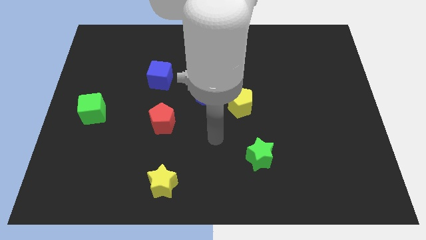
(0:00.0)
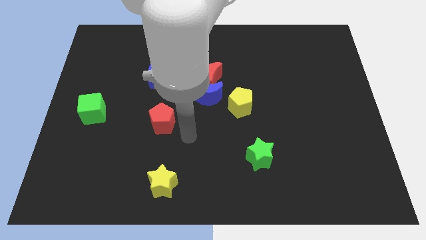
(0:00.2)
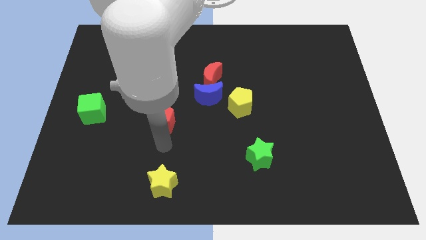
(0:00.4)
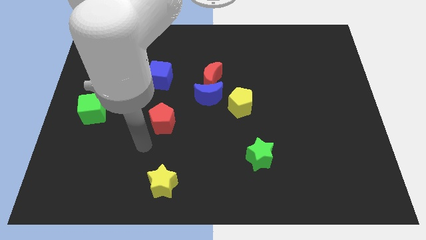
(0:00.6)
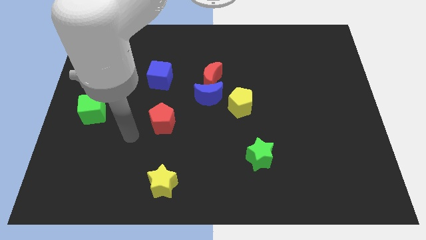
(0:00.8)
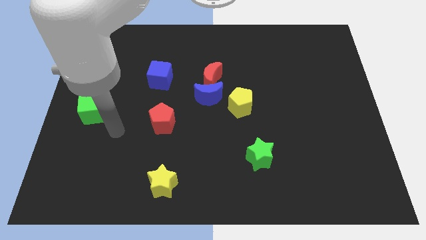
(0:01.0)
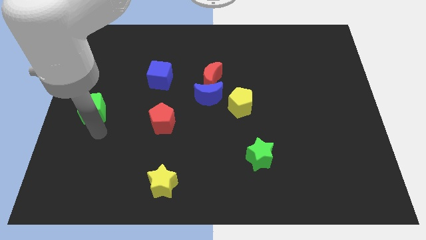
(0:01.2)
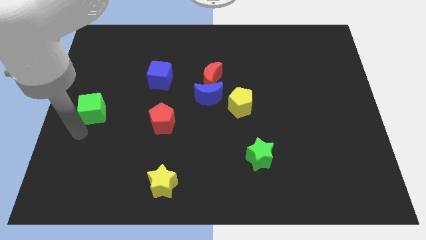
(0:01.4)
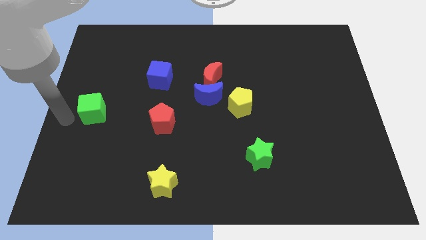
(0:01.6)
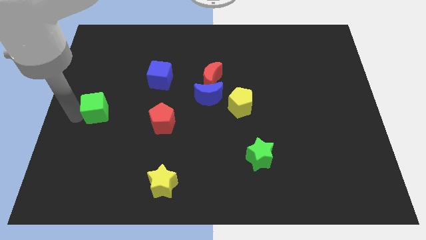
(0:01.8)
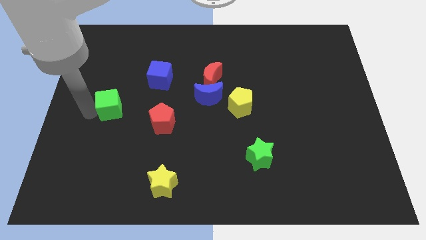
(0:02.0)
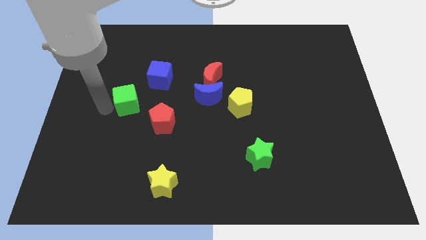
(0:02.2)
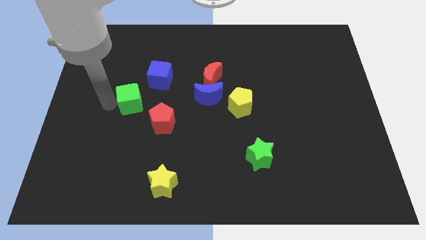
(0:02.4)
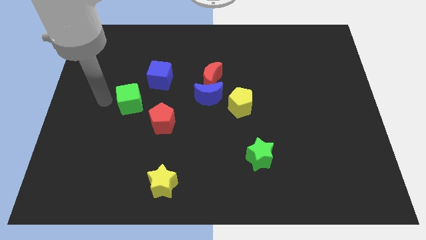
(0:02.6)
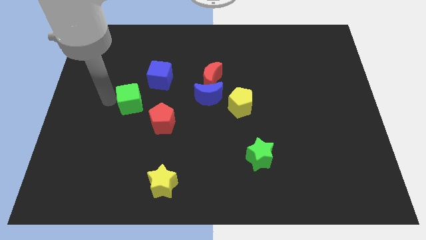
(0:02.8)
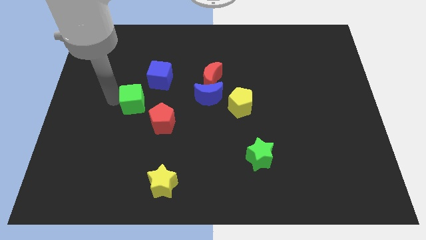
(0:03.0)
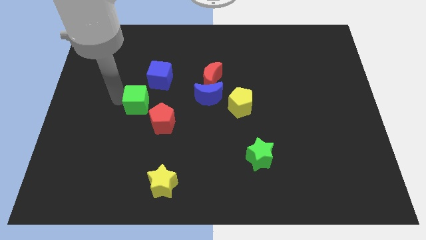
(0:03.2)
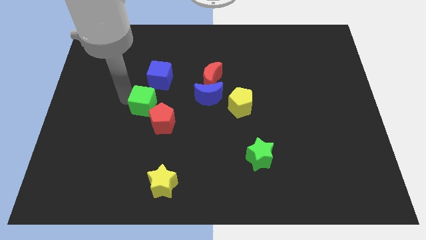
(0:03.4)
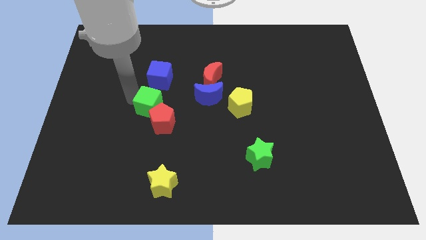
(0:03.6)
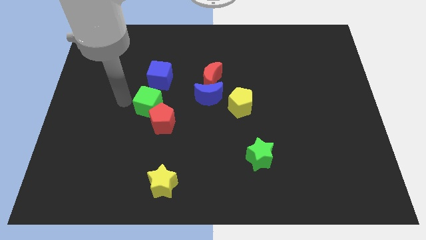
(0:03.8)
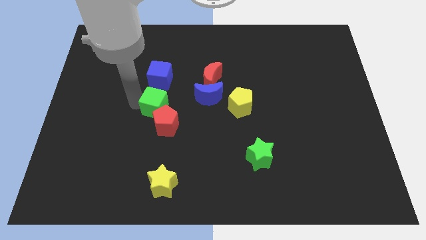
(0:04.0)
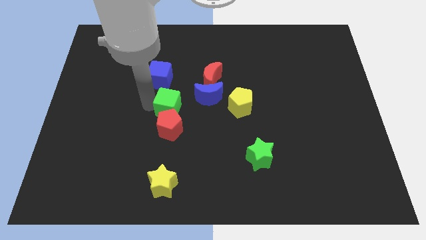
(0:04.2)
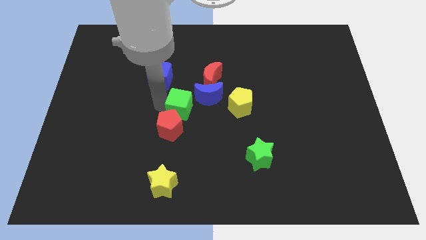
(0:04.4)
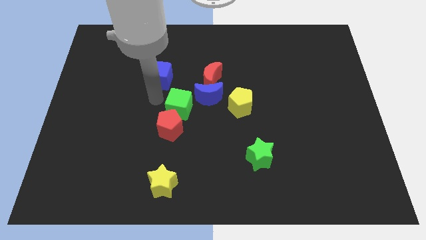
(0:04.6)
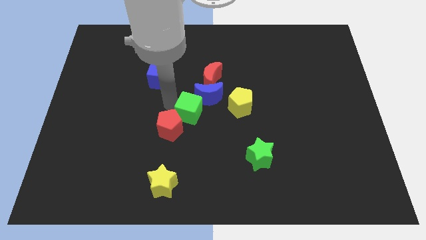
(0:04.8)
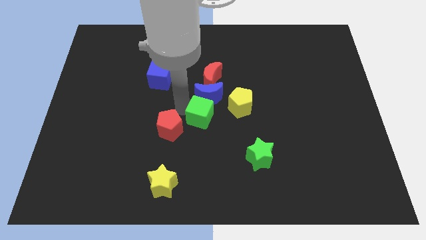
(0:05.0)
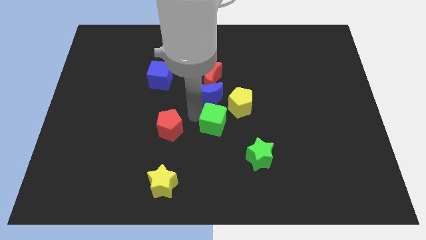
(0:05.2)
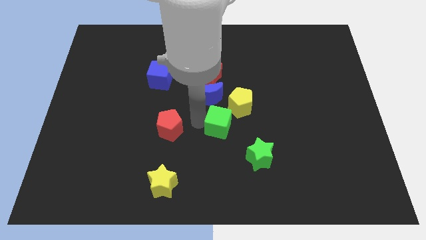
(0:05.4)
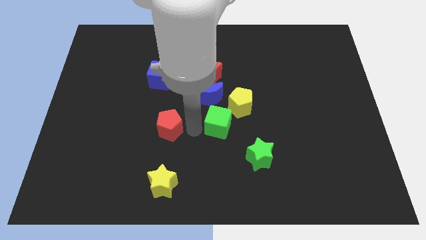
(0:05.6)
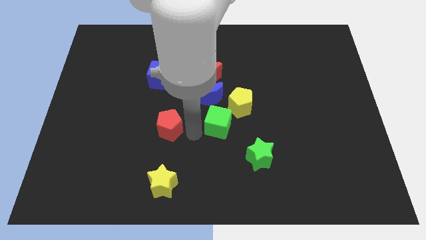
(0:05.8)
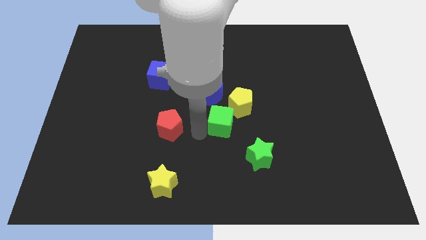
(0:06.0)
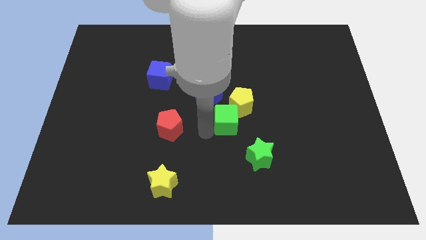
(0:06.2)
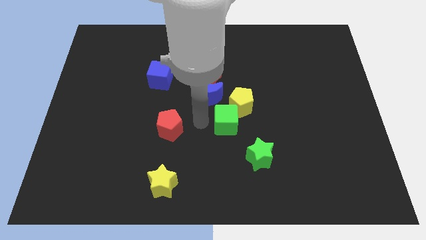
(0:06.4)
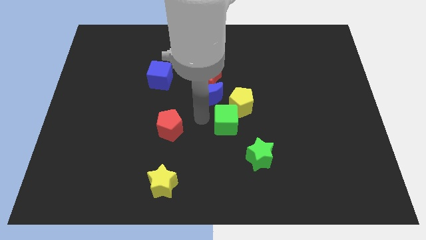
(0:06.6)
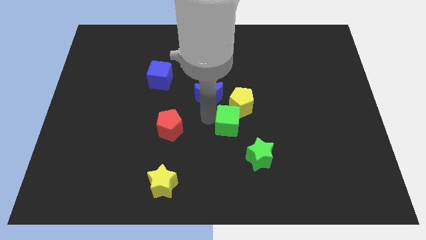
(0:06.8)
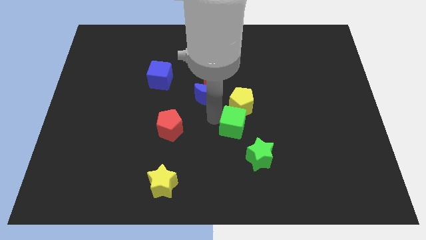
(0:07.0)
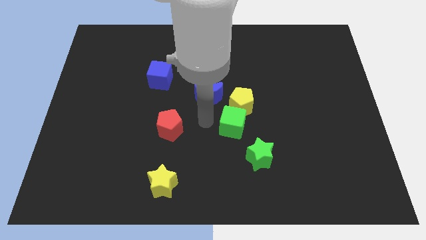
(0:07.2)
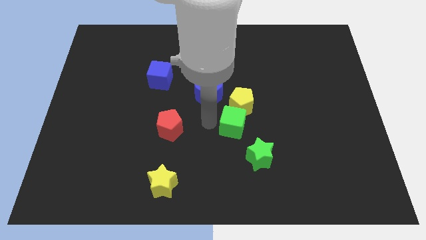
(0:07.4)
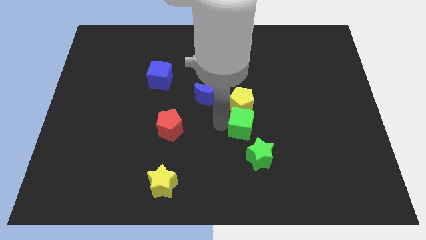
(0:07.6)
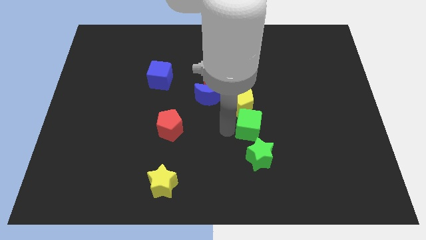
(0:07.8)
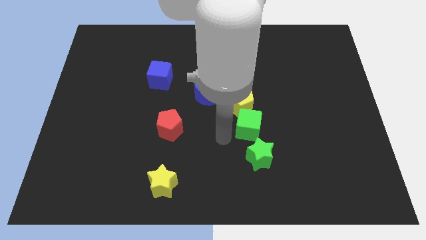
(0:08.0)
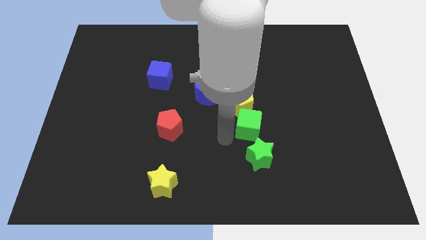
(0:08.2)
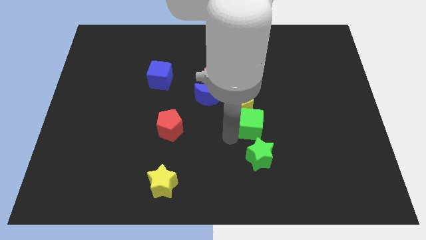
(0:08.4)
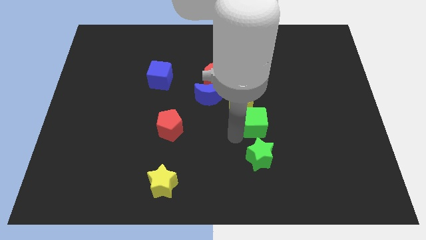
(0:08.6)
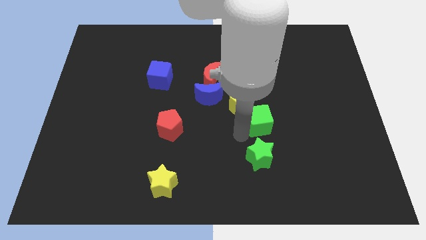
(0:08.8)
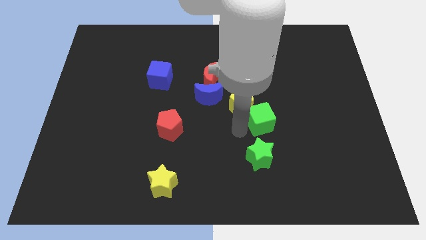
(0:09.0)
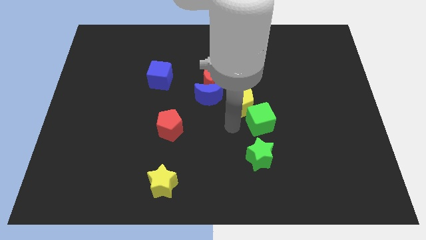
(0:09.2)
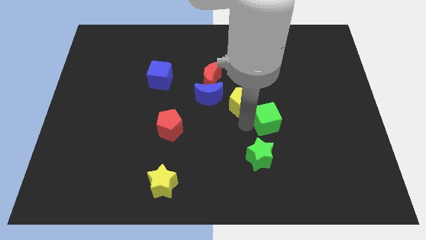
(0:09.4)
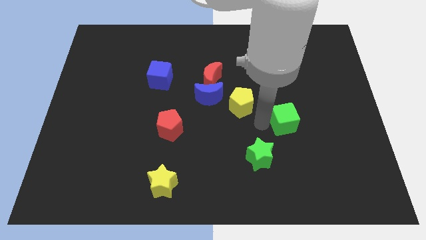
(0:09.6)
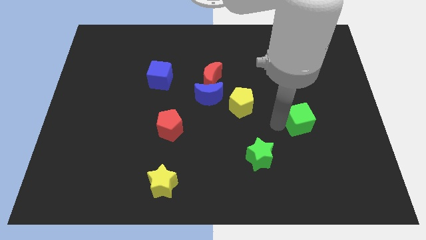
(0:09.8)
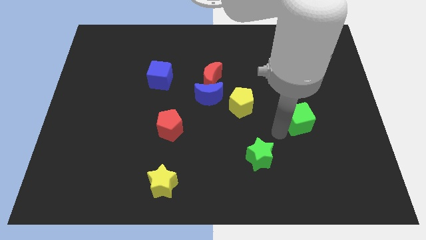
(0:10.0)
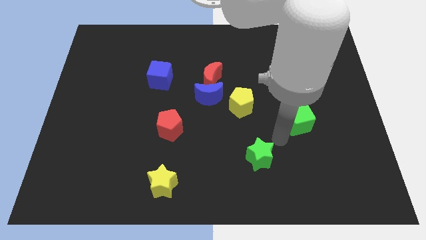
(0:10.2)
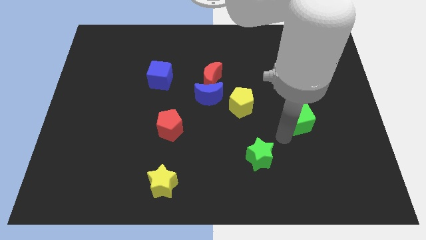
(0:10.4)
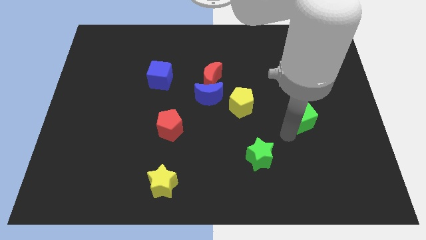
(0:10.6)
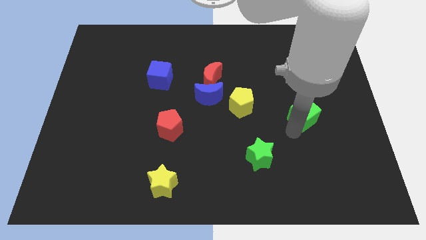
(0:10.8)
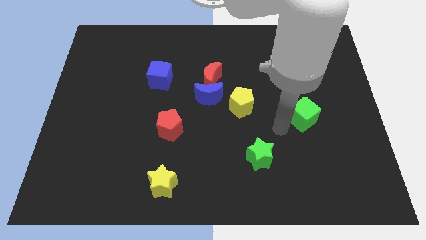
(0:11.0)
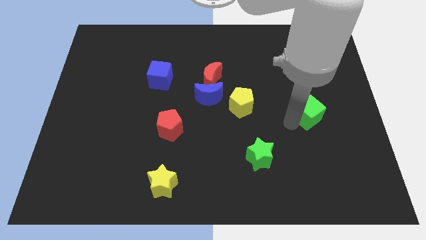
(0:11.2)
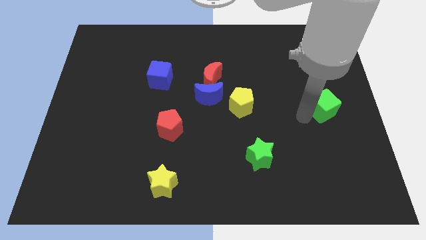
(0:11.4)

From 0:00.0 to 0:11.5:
move the green cube to the right side
